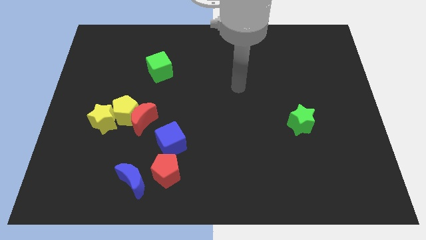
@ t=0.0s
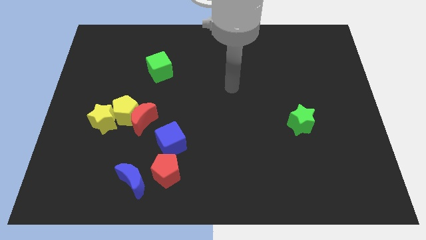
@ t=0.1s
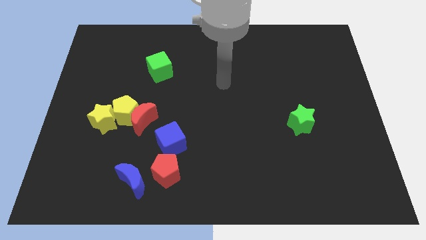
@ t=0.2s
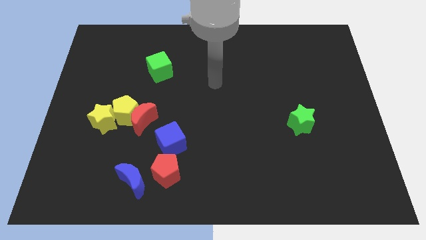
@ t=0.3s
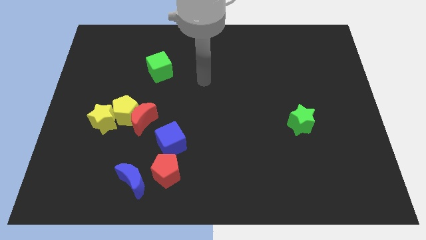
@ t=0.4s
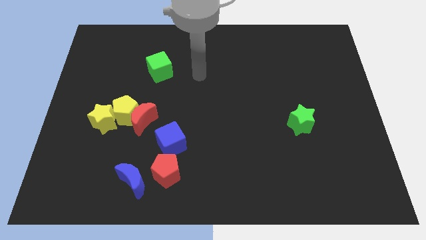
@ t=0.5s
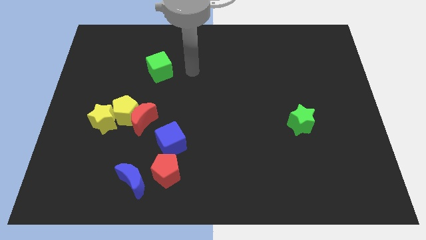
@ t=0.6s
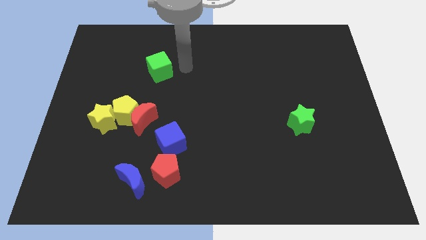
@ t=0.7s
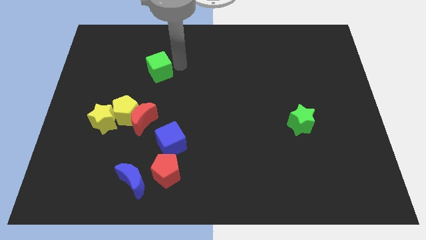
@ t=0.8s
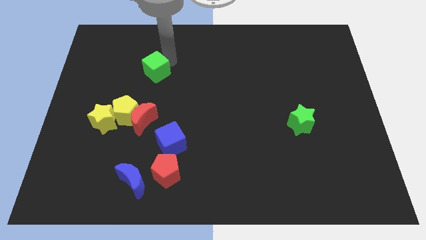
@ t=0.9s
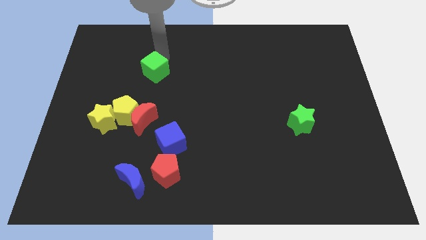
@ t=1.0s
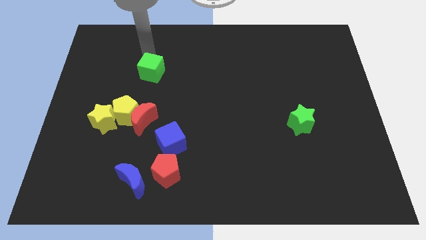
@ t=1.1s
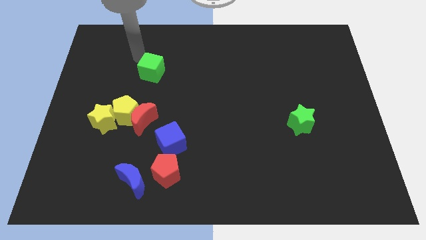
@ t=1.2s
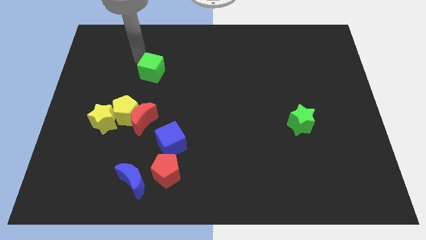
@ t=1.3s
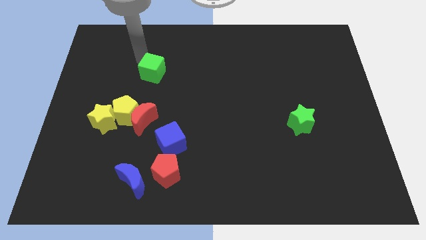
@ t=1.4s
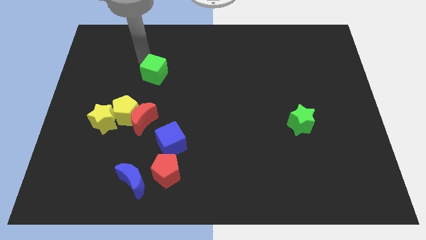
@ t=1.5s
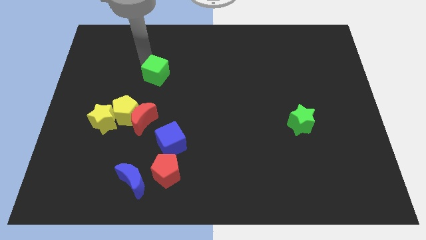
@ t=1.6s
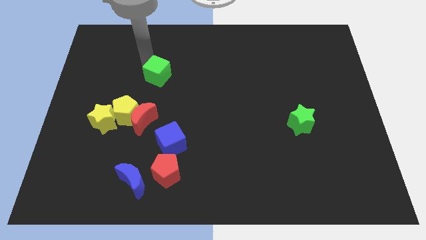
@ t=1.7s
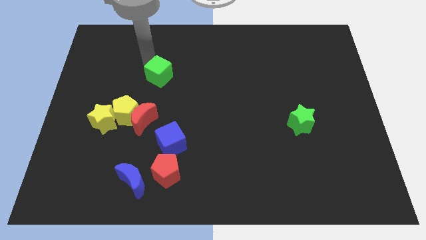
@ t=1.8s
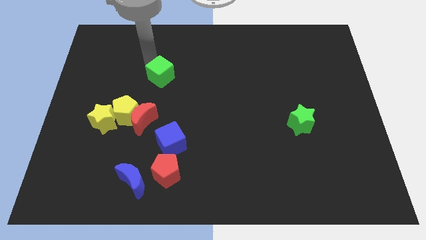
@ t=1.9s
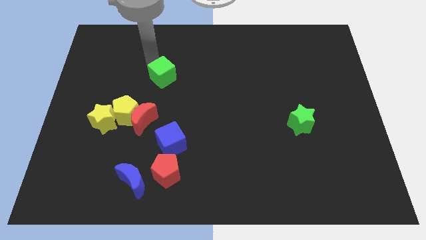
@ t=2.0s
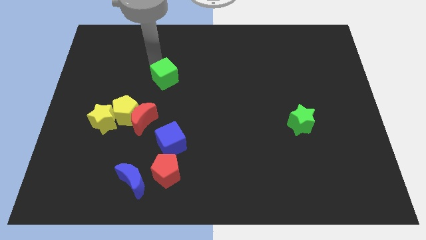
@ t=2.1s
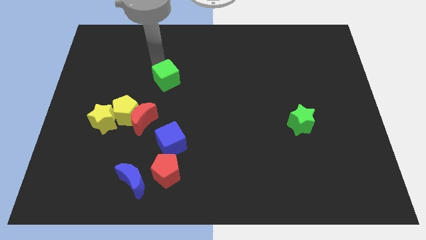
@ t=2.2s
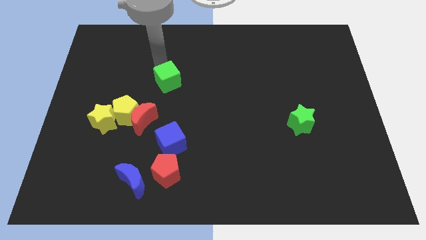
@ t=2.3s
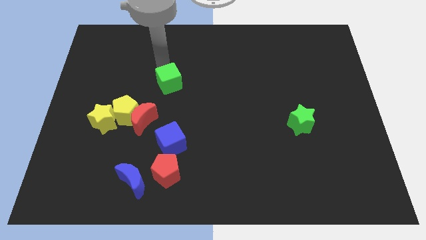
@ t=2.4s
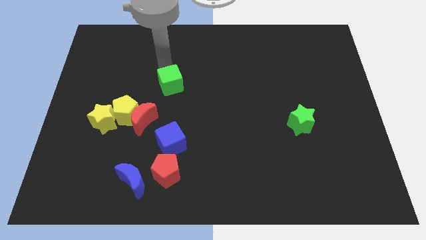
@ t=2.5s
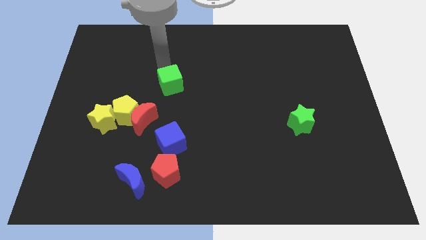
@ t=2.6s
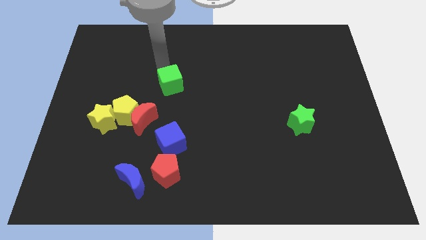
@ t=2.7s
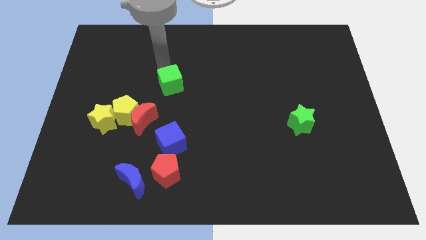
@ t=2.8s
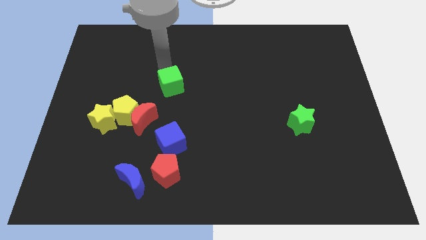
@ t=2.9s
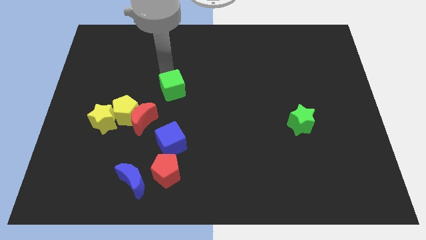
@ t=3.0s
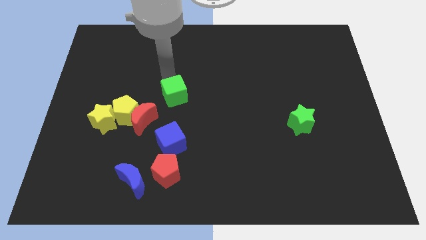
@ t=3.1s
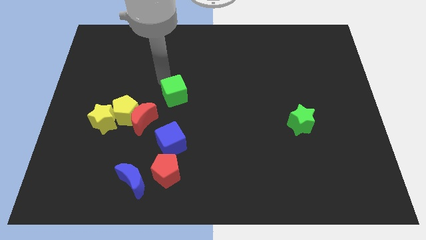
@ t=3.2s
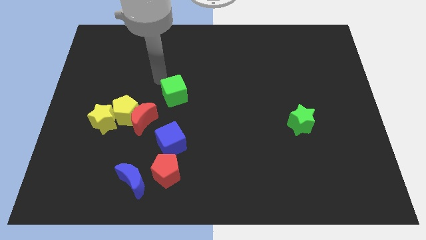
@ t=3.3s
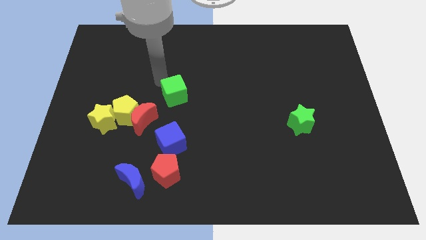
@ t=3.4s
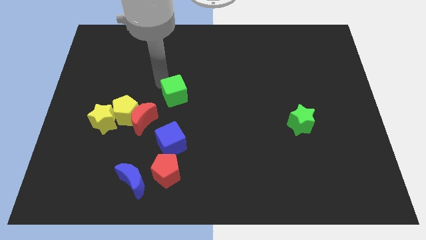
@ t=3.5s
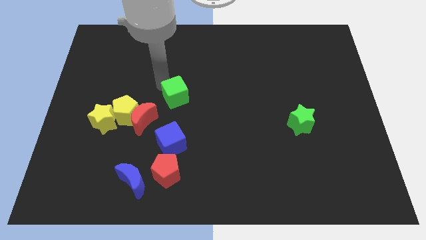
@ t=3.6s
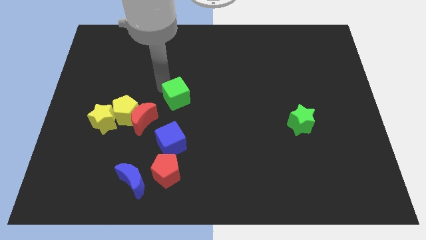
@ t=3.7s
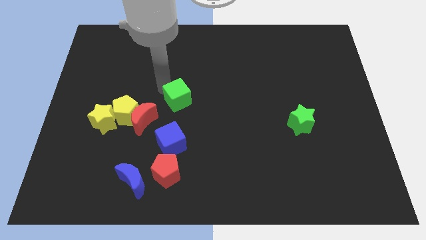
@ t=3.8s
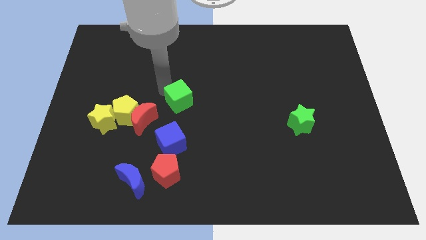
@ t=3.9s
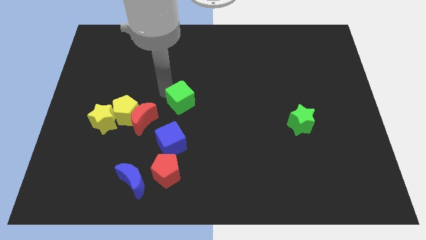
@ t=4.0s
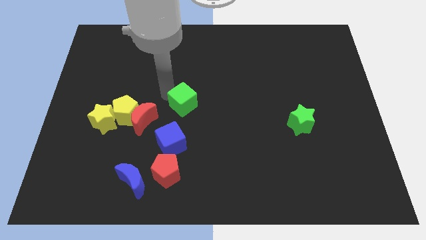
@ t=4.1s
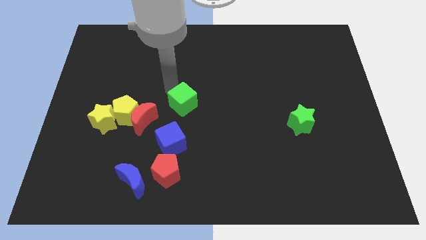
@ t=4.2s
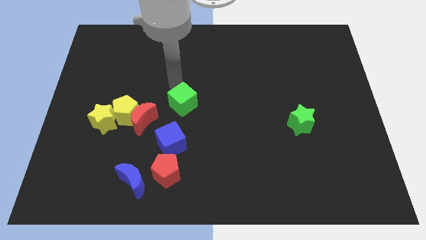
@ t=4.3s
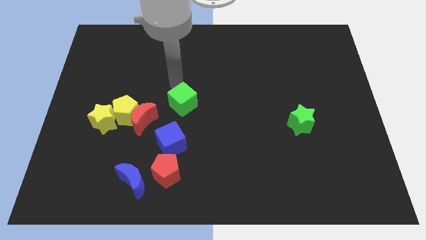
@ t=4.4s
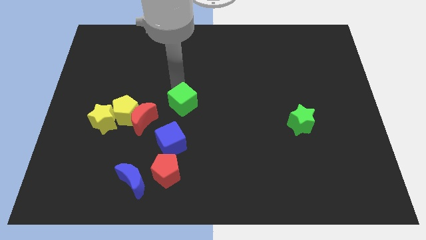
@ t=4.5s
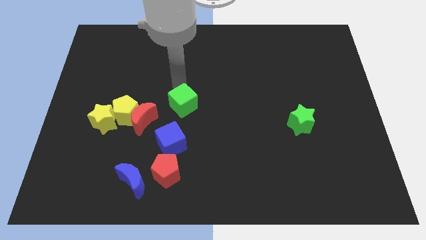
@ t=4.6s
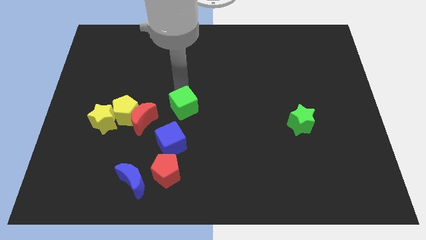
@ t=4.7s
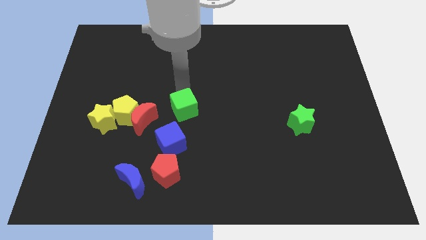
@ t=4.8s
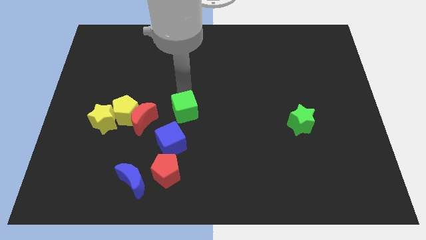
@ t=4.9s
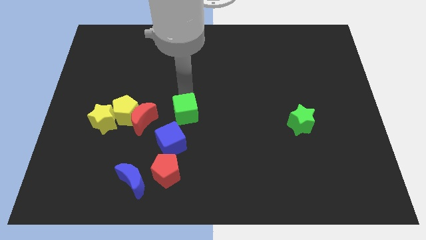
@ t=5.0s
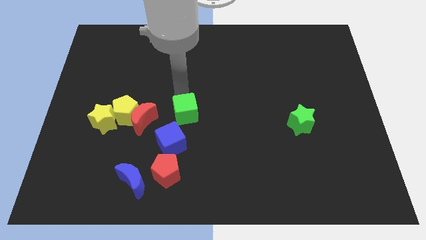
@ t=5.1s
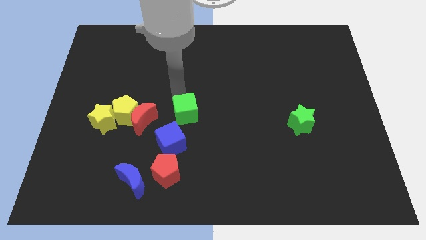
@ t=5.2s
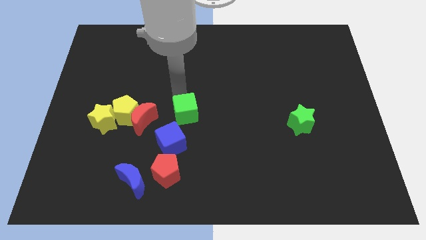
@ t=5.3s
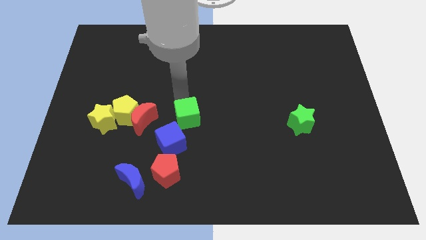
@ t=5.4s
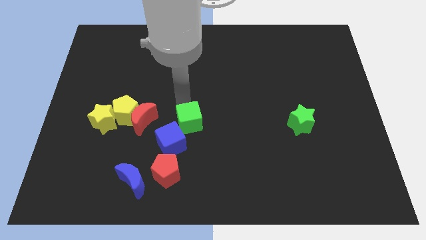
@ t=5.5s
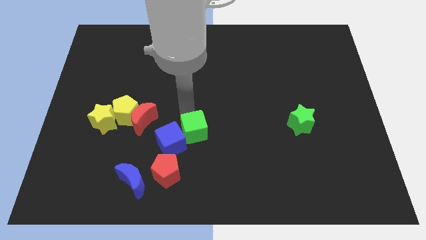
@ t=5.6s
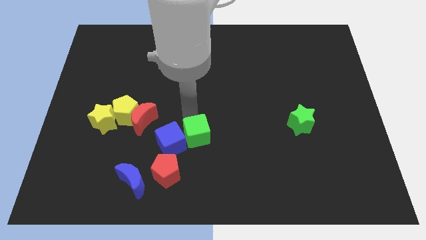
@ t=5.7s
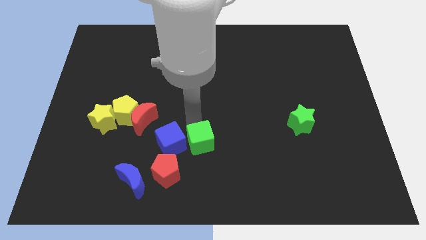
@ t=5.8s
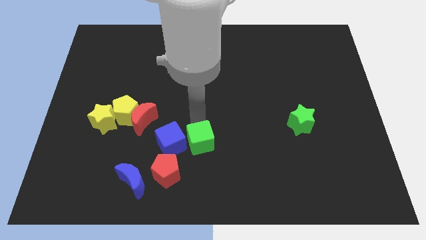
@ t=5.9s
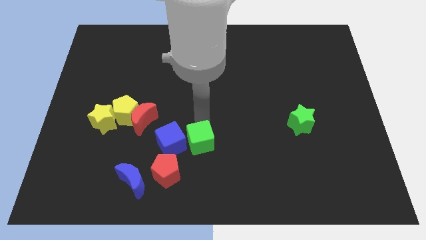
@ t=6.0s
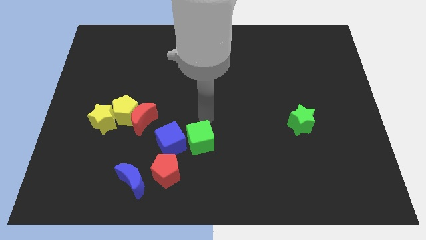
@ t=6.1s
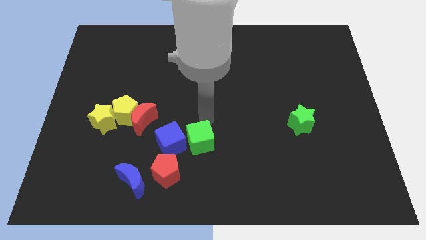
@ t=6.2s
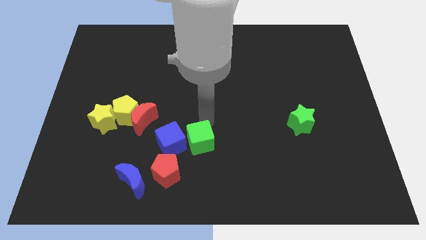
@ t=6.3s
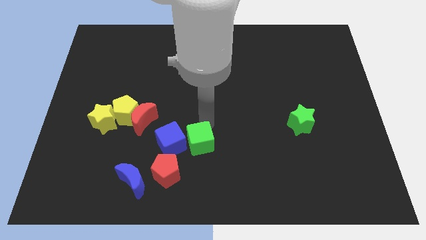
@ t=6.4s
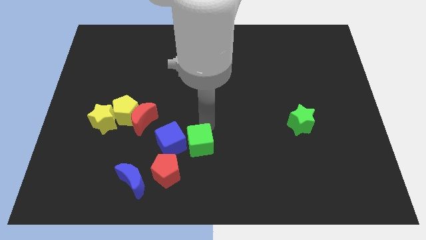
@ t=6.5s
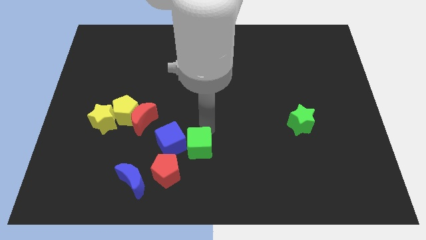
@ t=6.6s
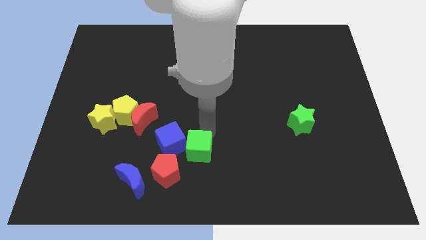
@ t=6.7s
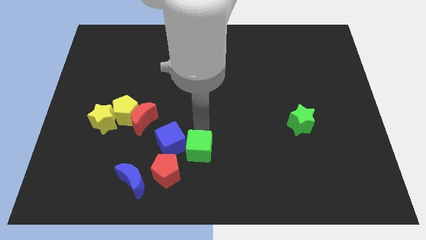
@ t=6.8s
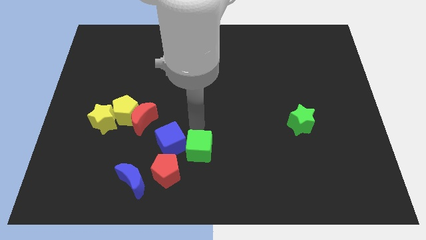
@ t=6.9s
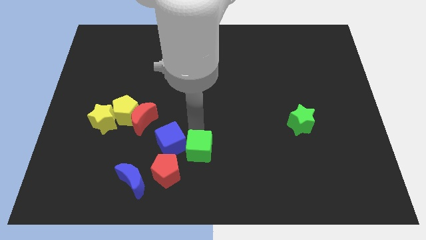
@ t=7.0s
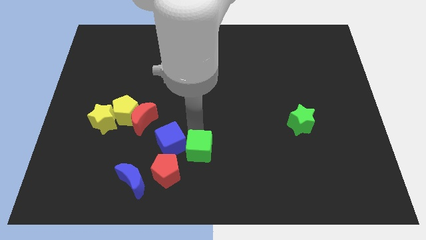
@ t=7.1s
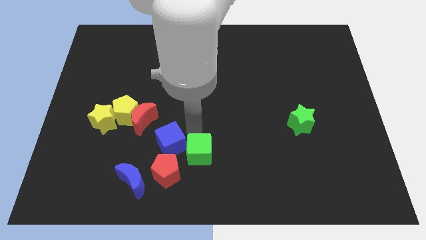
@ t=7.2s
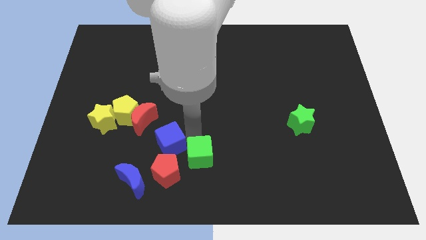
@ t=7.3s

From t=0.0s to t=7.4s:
move the green cube to the bottom side
